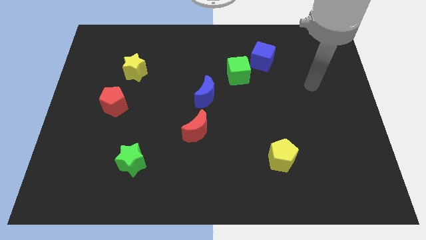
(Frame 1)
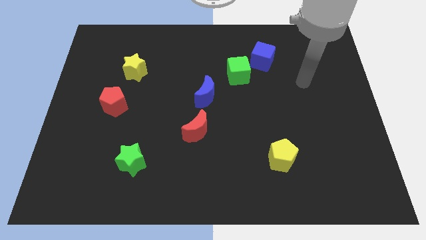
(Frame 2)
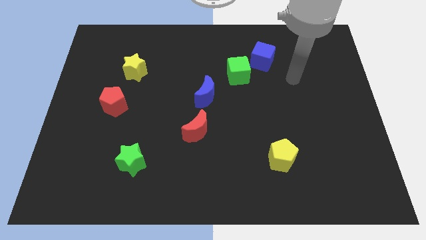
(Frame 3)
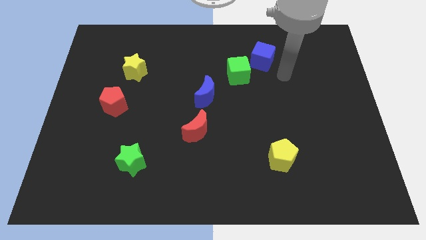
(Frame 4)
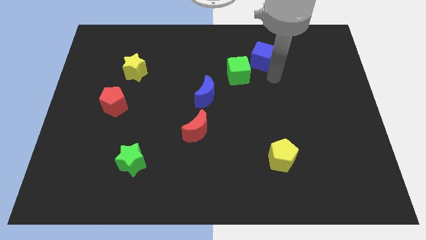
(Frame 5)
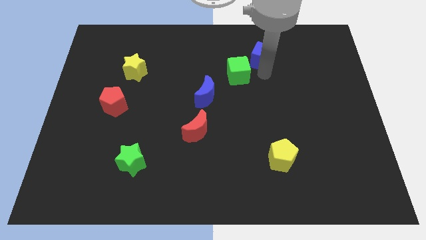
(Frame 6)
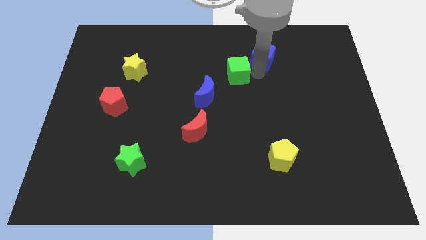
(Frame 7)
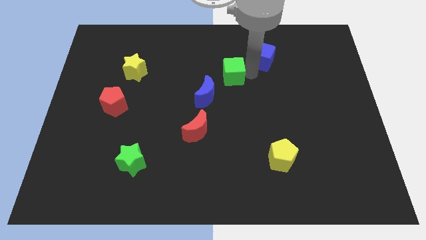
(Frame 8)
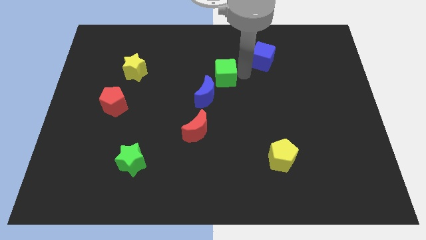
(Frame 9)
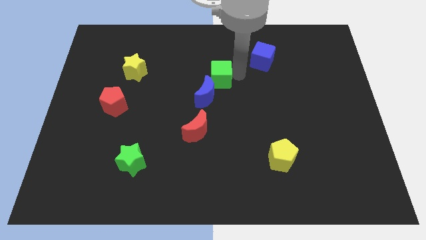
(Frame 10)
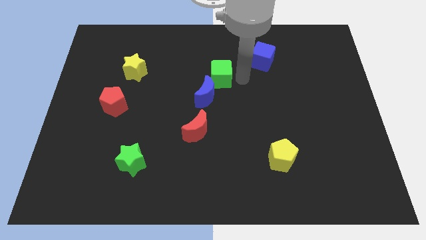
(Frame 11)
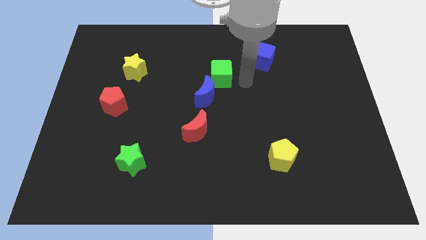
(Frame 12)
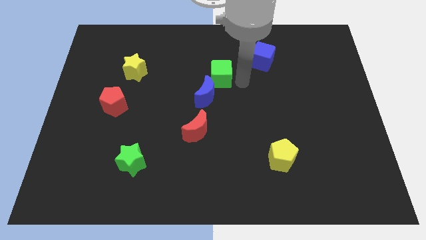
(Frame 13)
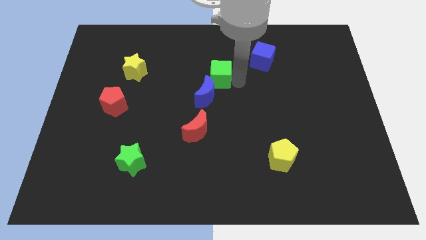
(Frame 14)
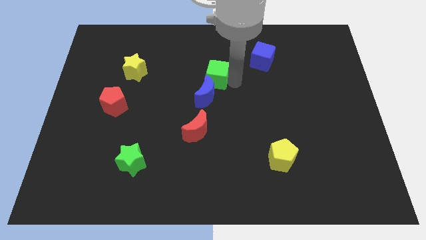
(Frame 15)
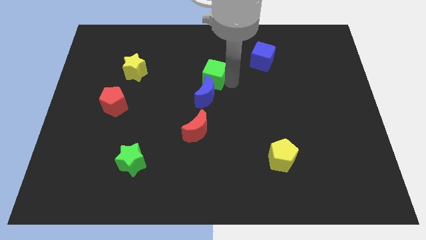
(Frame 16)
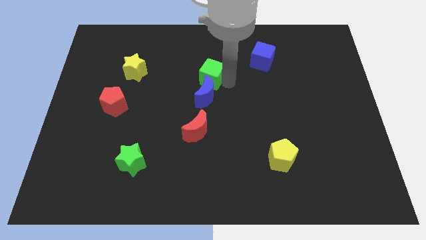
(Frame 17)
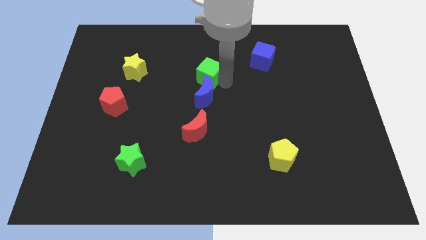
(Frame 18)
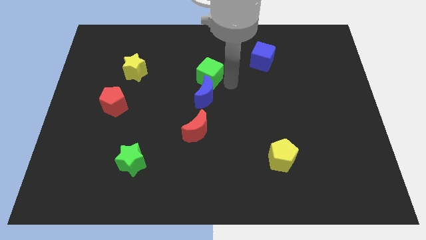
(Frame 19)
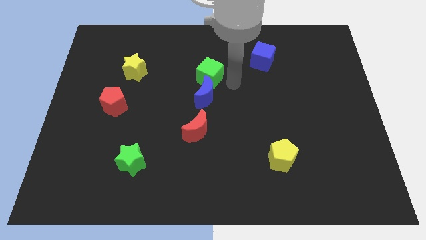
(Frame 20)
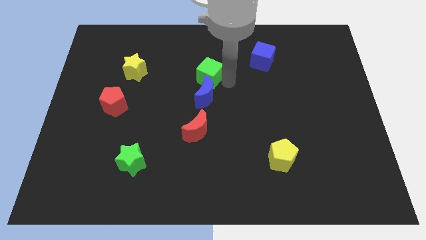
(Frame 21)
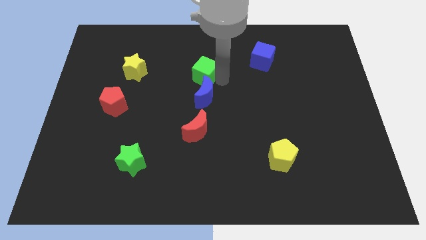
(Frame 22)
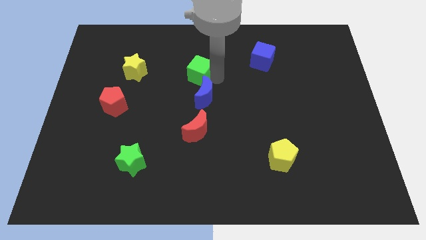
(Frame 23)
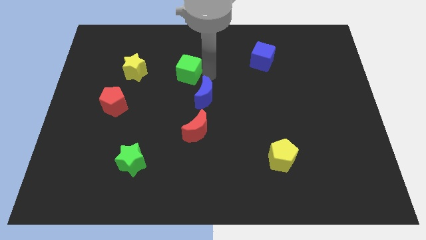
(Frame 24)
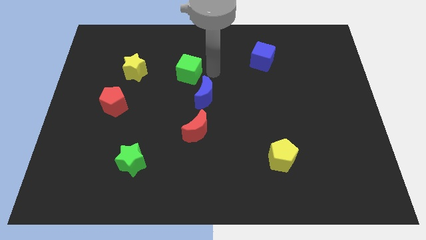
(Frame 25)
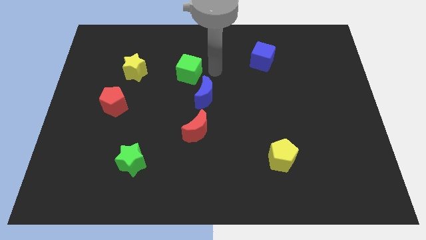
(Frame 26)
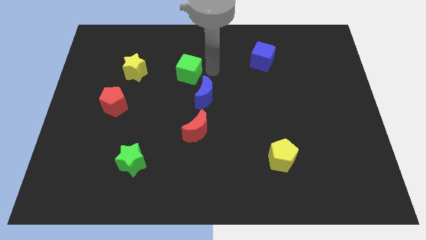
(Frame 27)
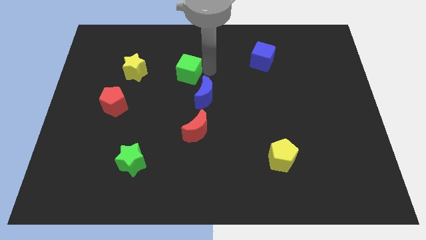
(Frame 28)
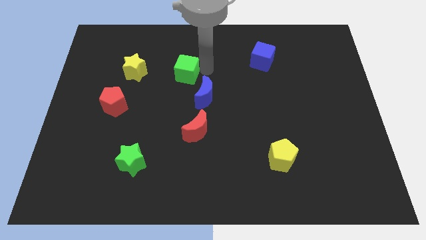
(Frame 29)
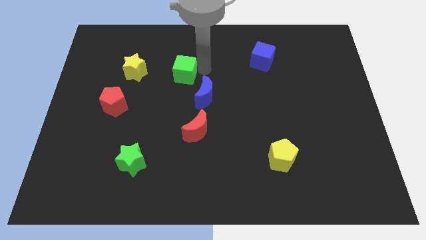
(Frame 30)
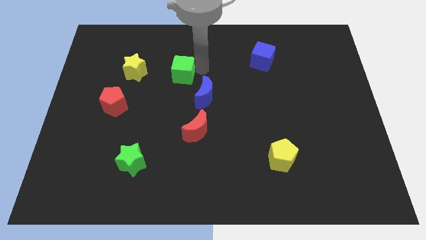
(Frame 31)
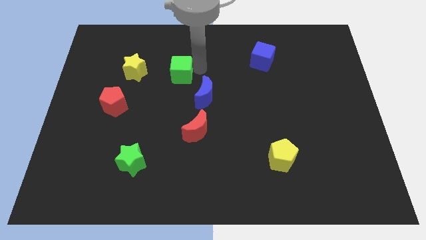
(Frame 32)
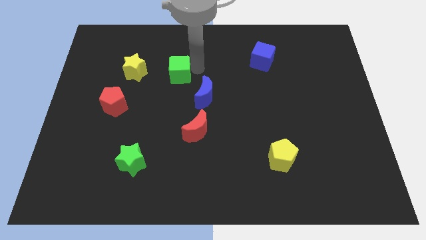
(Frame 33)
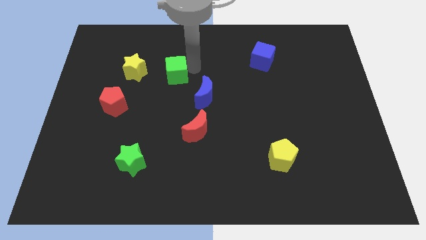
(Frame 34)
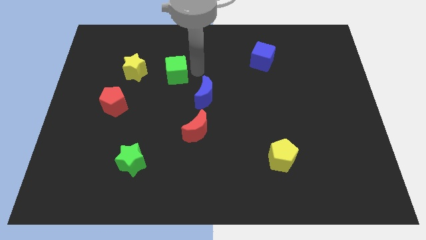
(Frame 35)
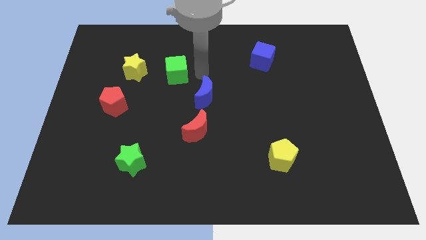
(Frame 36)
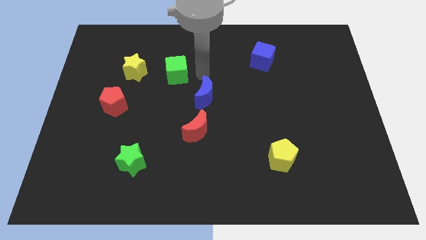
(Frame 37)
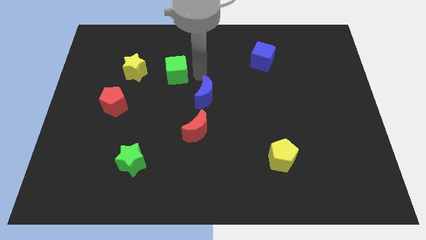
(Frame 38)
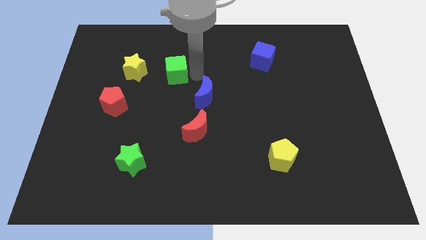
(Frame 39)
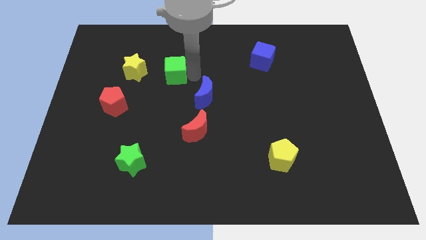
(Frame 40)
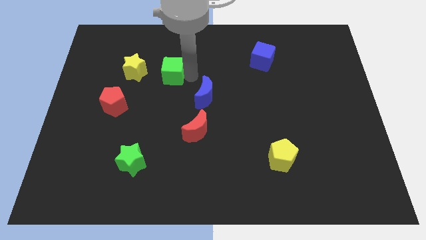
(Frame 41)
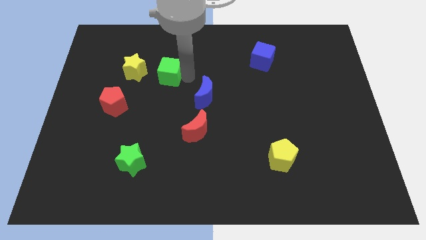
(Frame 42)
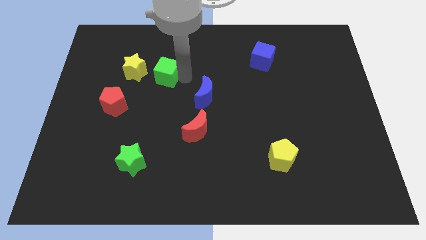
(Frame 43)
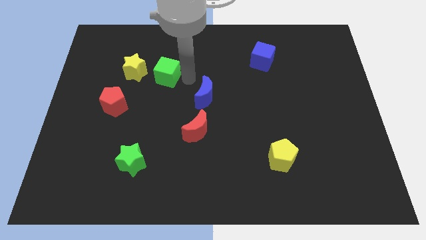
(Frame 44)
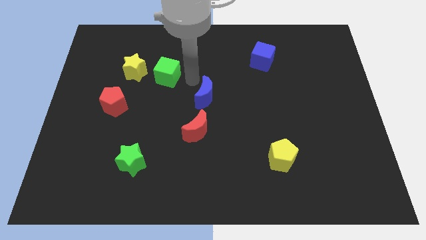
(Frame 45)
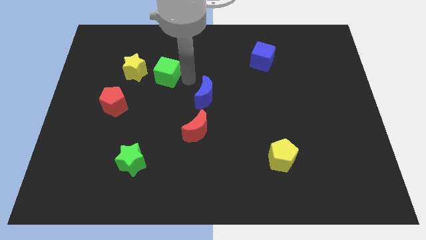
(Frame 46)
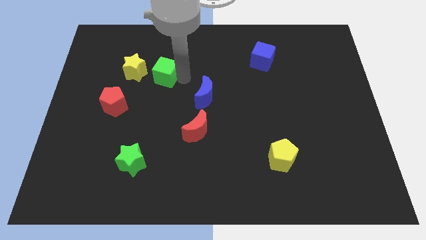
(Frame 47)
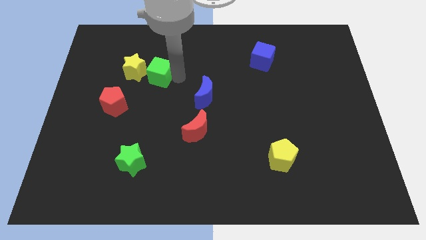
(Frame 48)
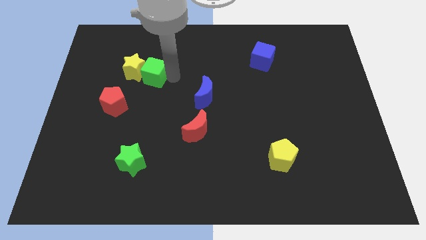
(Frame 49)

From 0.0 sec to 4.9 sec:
slide the green cube close to the yellow star

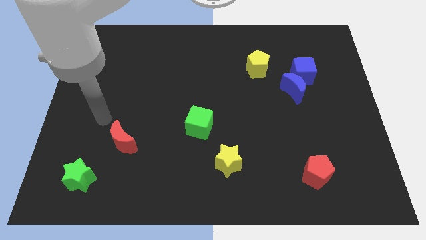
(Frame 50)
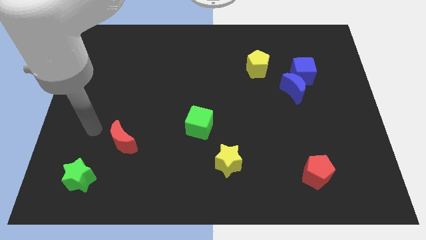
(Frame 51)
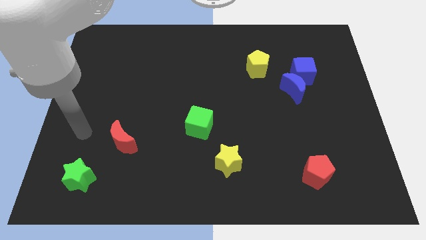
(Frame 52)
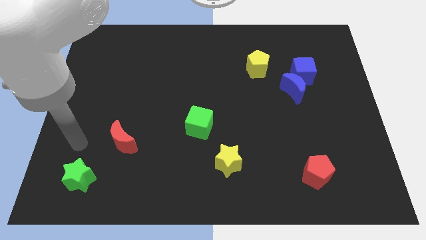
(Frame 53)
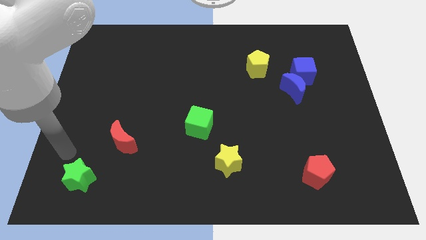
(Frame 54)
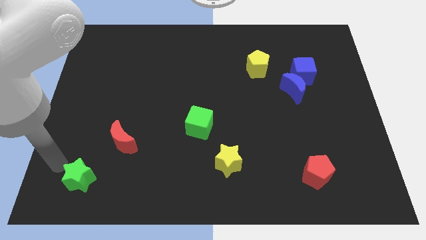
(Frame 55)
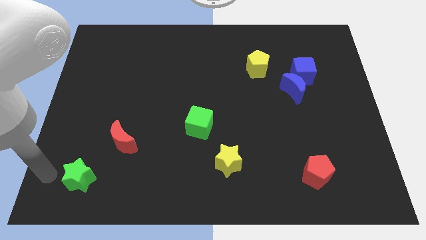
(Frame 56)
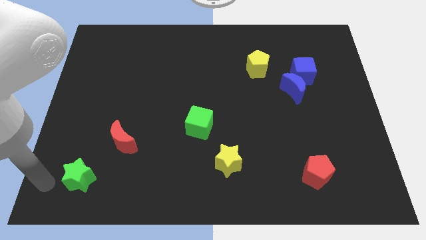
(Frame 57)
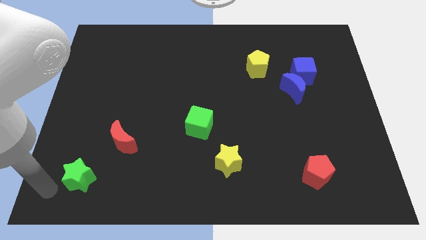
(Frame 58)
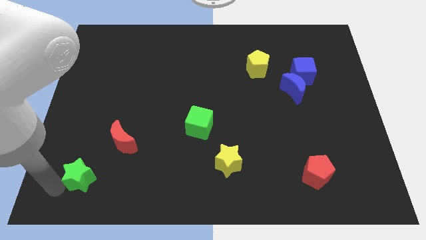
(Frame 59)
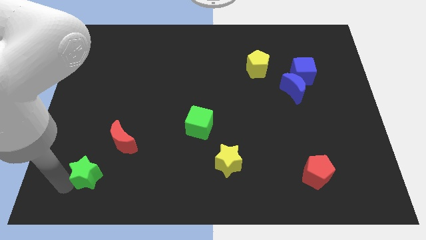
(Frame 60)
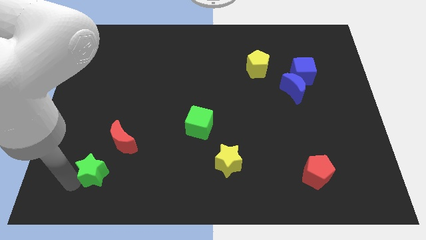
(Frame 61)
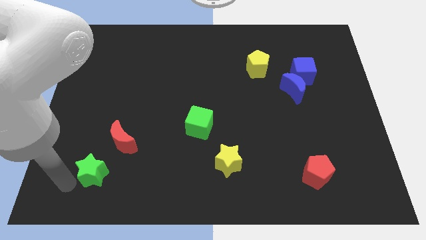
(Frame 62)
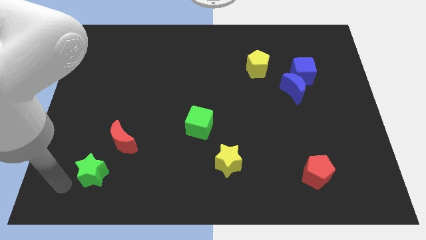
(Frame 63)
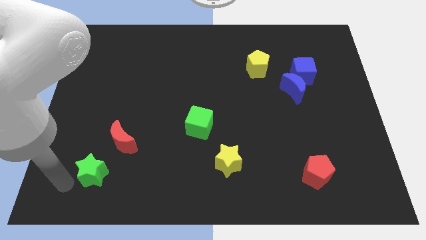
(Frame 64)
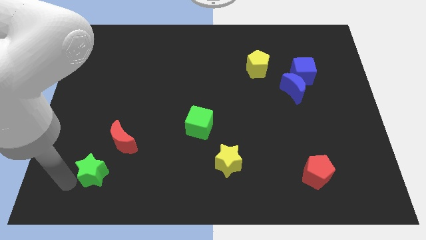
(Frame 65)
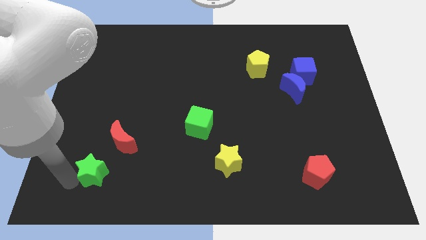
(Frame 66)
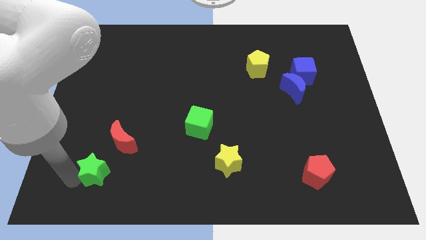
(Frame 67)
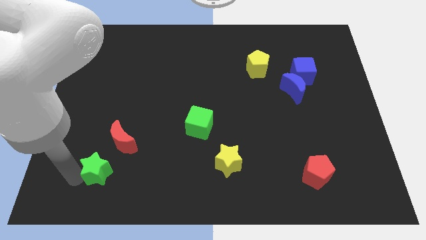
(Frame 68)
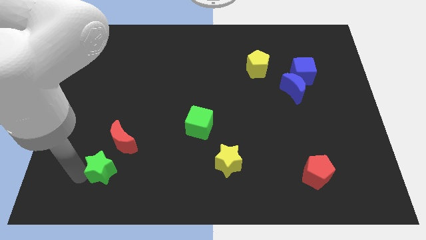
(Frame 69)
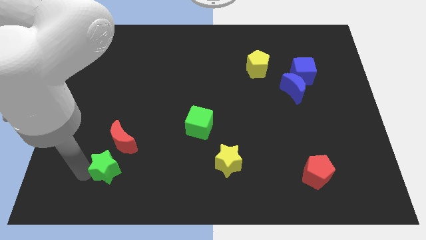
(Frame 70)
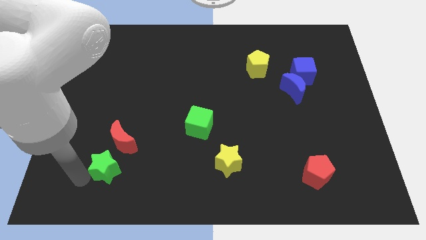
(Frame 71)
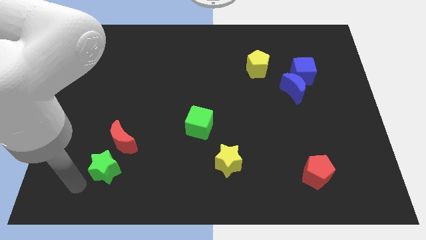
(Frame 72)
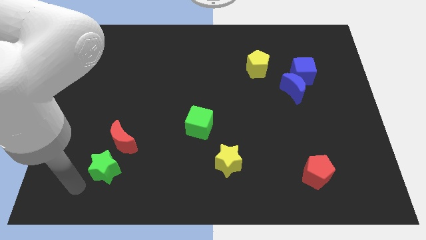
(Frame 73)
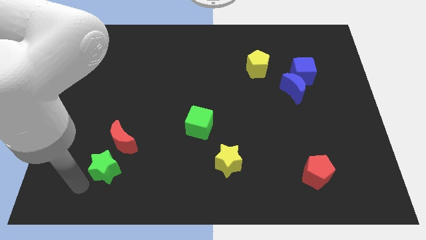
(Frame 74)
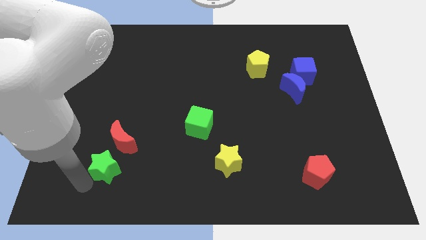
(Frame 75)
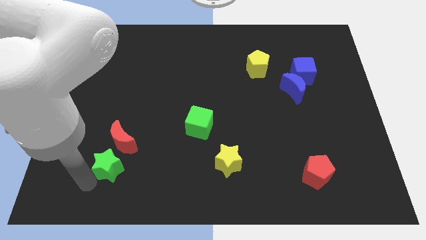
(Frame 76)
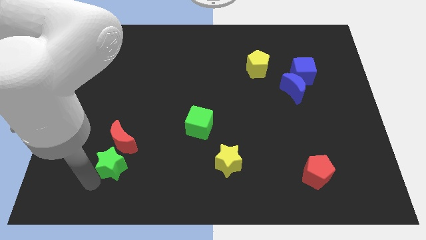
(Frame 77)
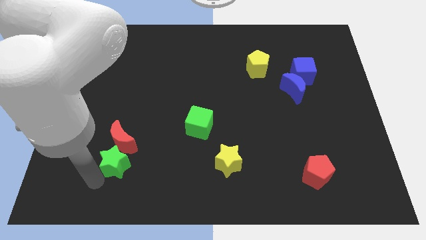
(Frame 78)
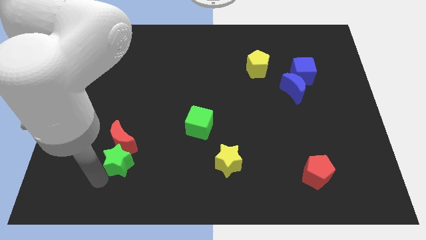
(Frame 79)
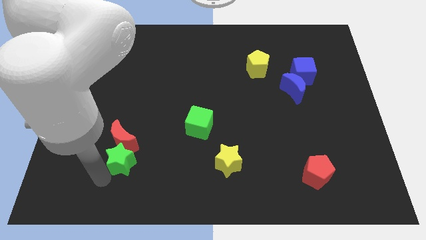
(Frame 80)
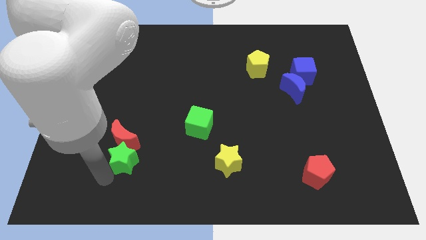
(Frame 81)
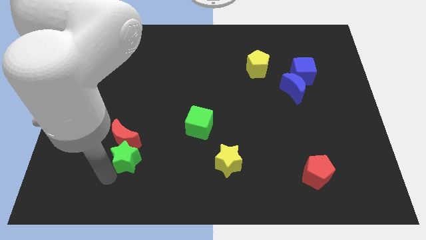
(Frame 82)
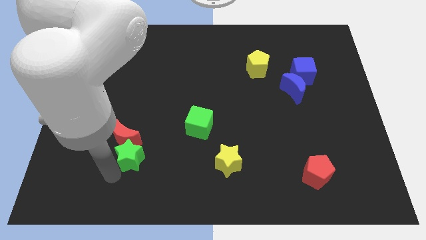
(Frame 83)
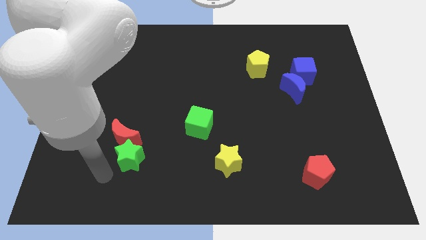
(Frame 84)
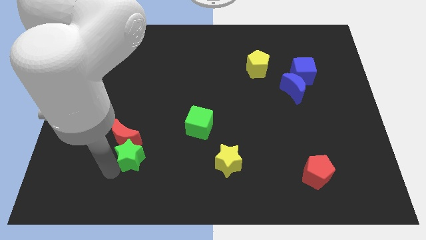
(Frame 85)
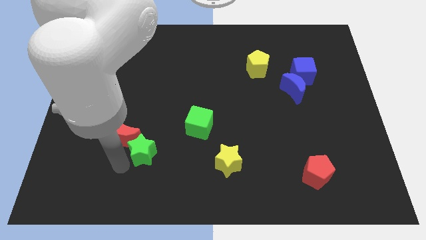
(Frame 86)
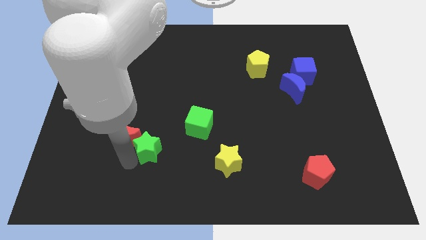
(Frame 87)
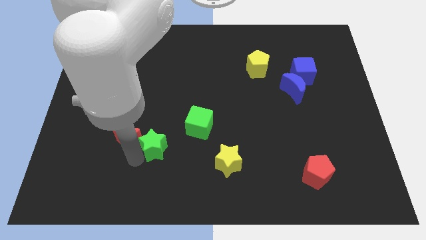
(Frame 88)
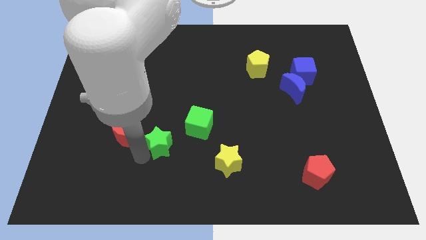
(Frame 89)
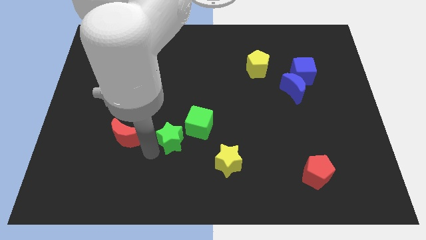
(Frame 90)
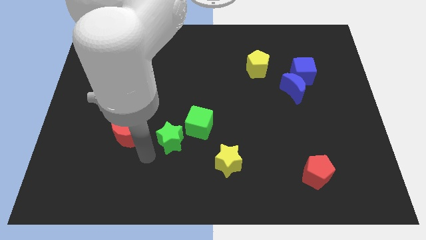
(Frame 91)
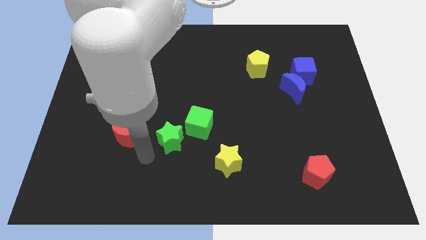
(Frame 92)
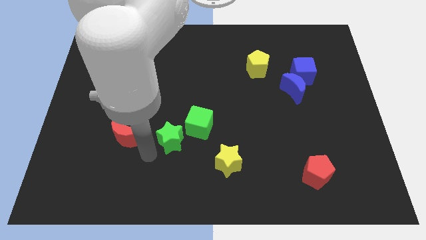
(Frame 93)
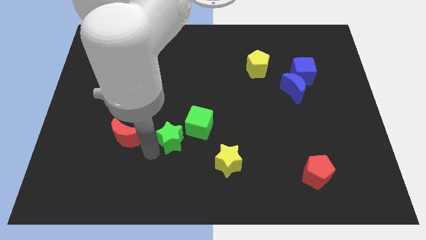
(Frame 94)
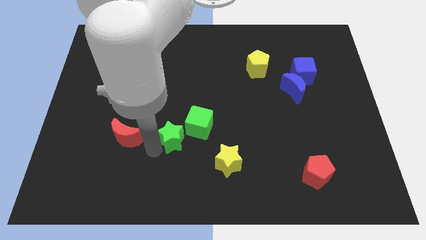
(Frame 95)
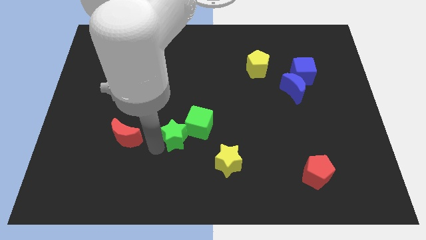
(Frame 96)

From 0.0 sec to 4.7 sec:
put the green star towards the green cube
